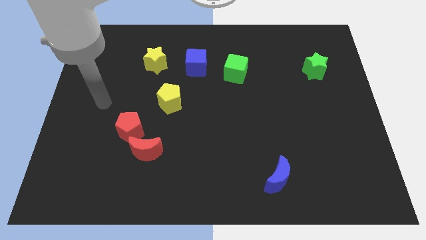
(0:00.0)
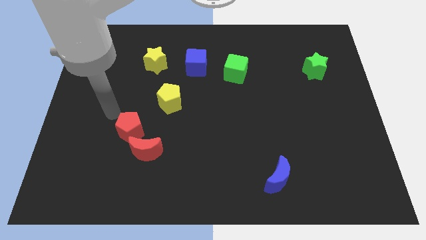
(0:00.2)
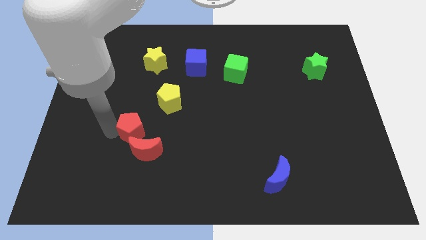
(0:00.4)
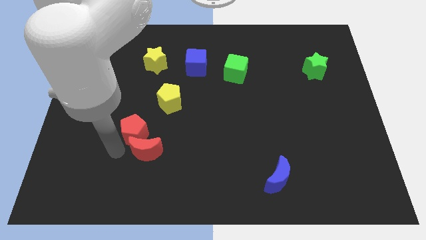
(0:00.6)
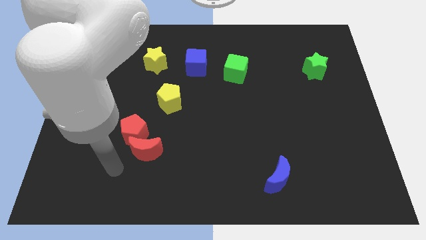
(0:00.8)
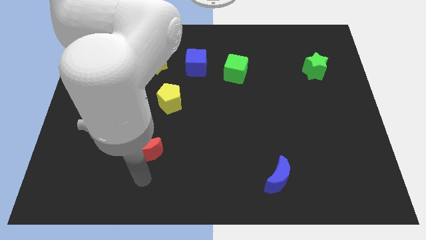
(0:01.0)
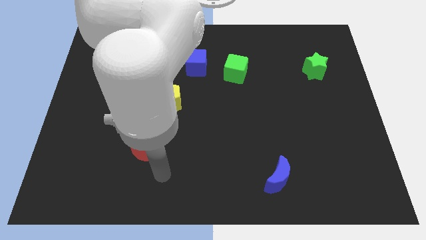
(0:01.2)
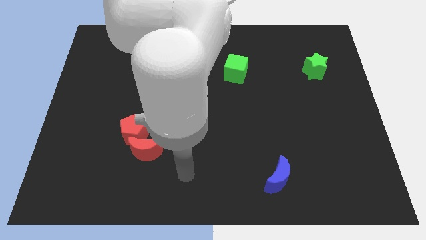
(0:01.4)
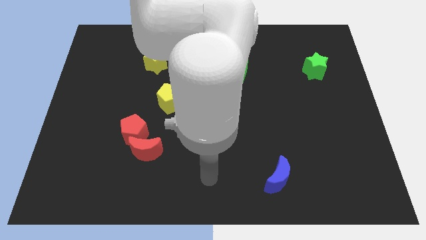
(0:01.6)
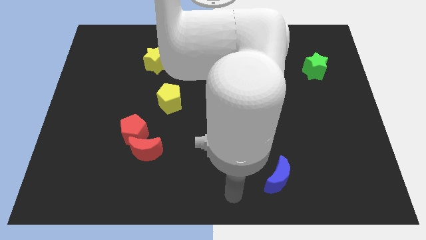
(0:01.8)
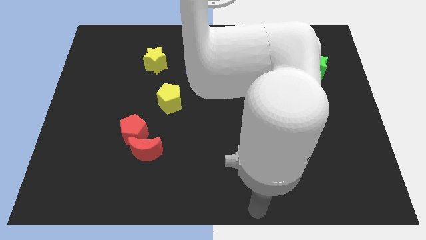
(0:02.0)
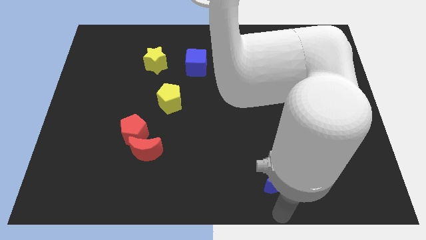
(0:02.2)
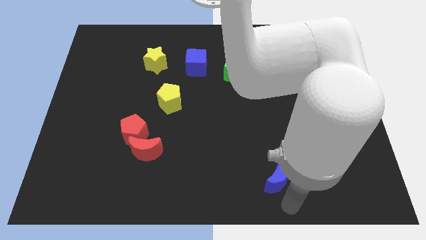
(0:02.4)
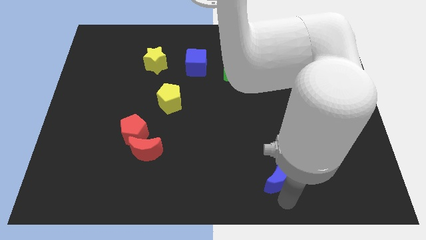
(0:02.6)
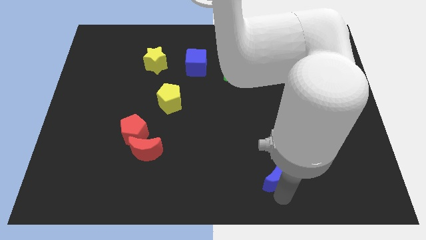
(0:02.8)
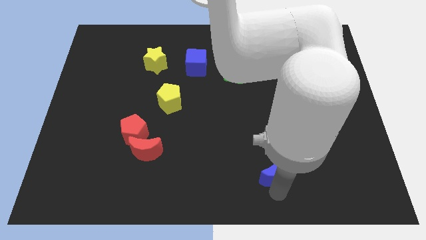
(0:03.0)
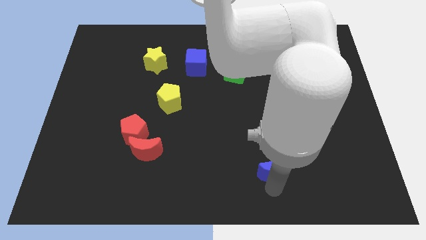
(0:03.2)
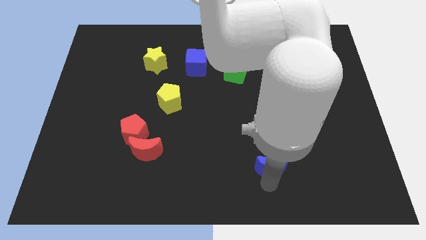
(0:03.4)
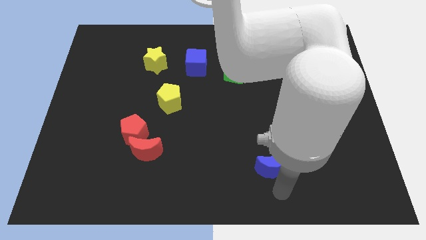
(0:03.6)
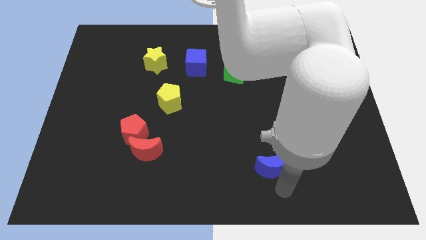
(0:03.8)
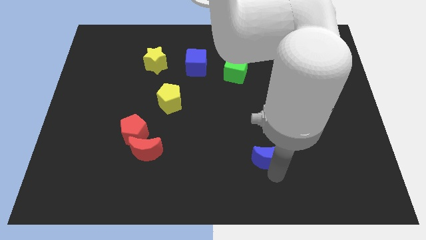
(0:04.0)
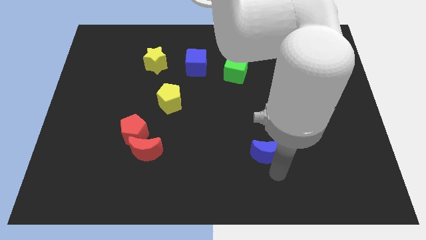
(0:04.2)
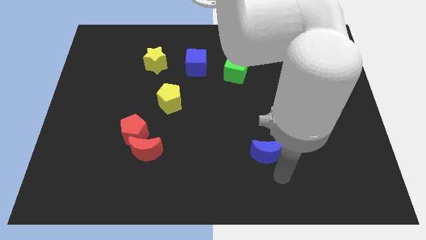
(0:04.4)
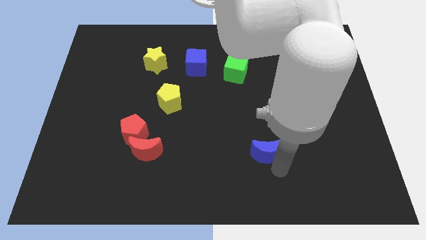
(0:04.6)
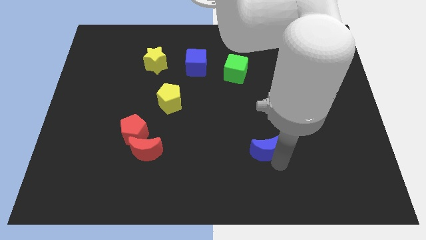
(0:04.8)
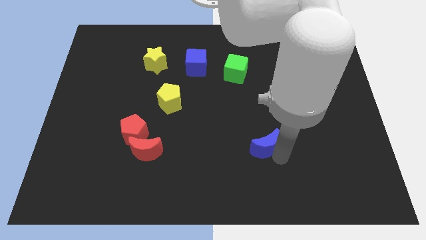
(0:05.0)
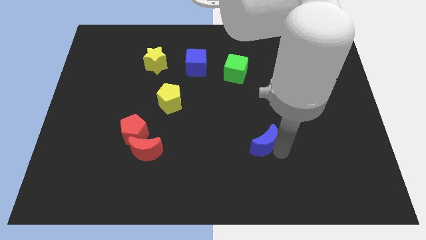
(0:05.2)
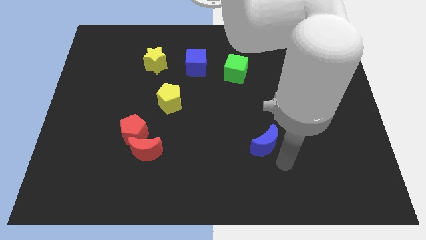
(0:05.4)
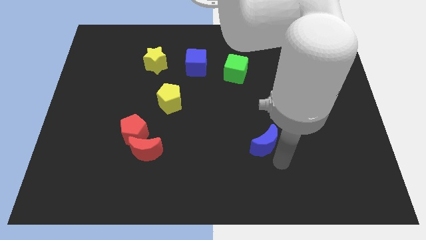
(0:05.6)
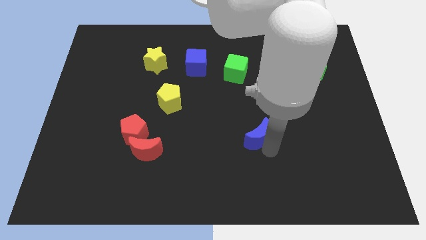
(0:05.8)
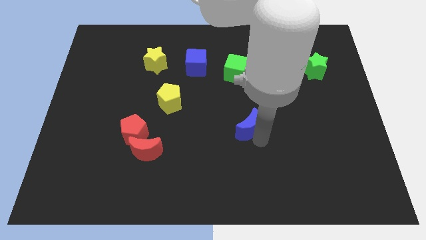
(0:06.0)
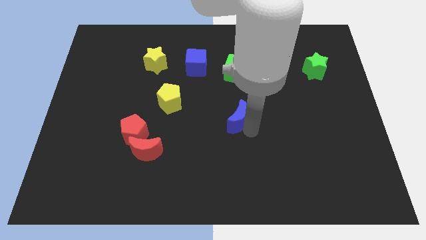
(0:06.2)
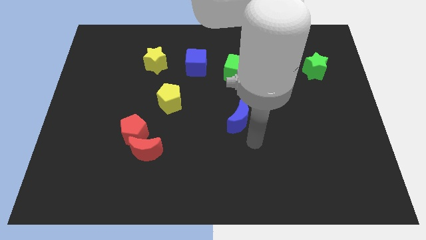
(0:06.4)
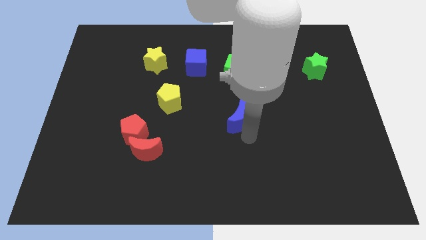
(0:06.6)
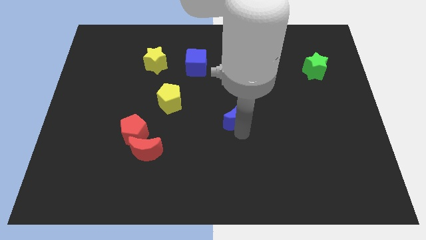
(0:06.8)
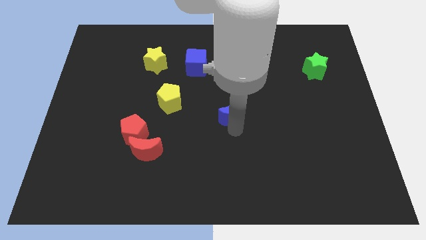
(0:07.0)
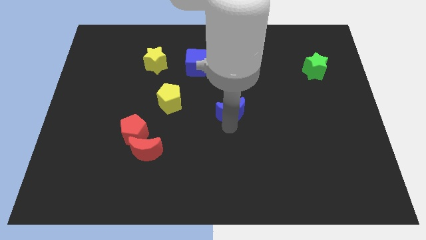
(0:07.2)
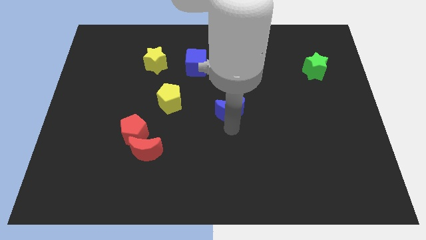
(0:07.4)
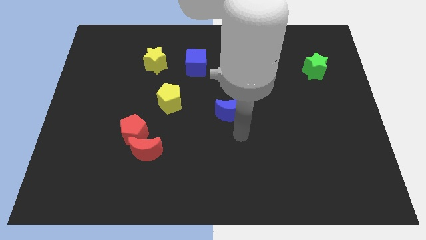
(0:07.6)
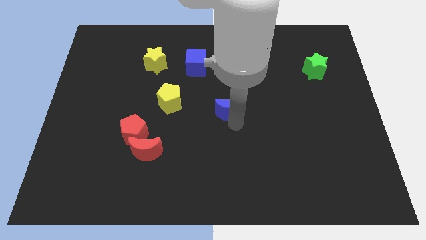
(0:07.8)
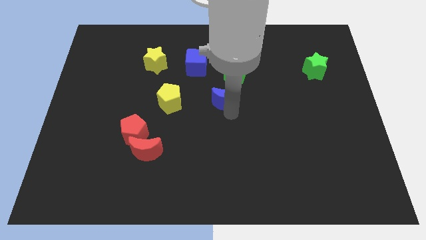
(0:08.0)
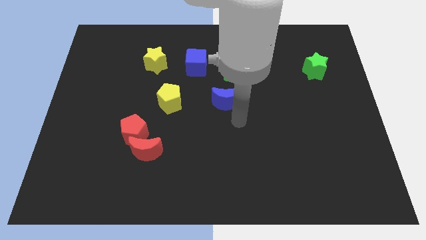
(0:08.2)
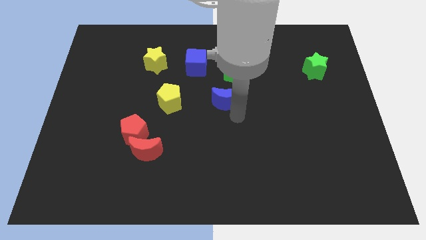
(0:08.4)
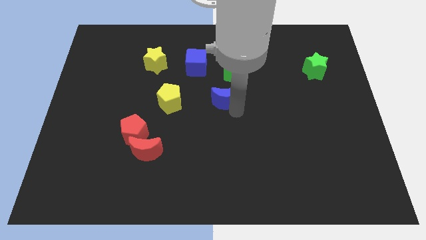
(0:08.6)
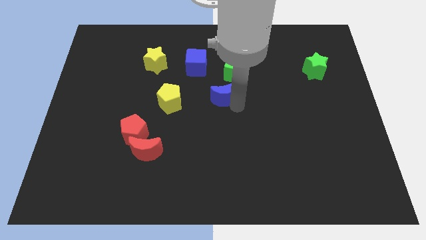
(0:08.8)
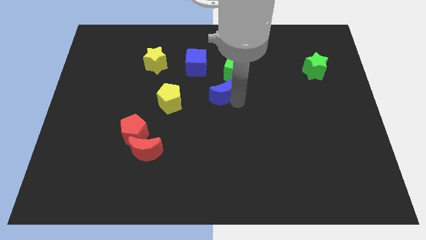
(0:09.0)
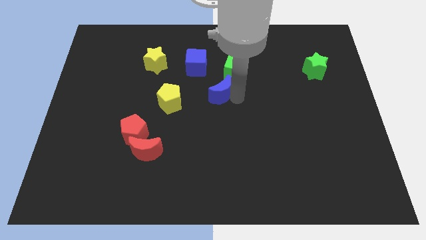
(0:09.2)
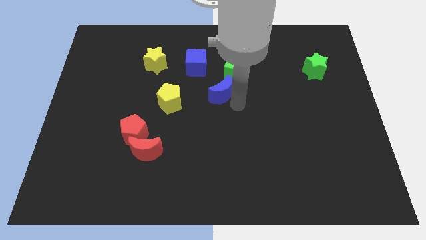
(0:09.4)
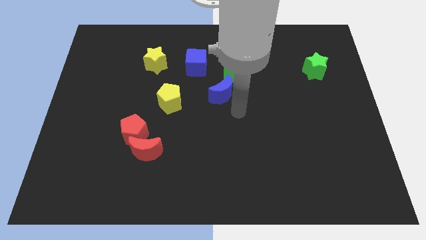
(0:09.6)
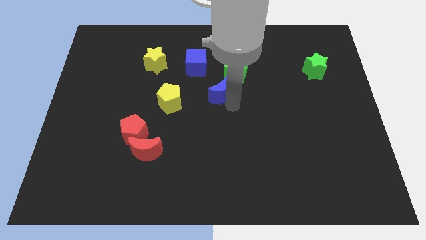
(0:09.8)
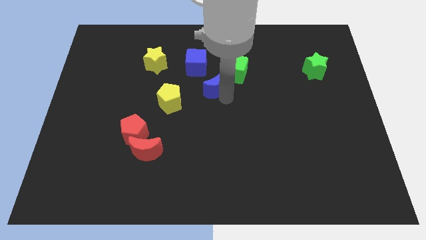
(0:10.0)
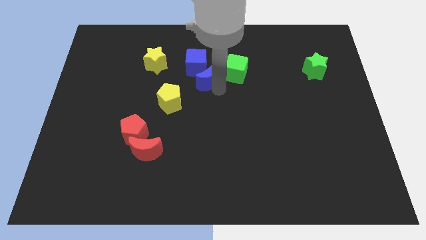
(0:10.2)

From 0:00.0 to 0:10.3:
slide the blue moon next to the blue cube

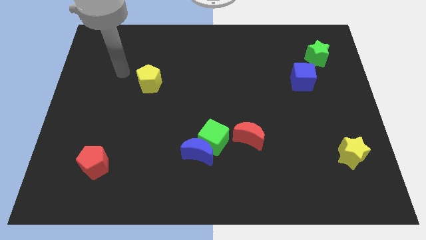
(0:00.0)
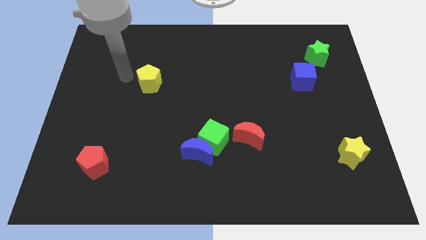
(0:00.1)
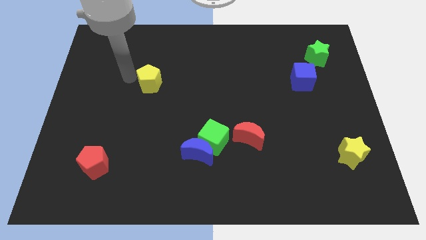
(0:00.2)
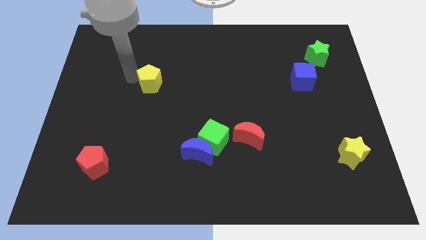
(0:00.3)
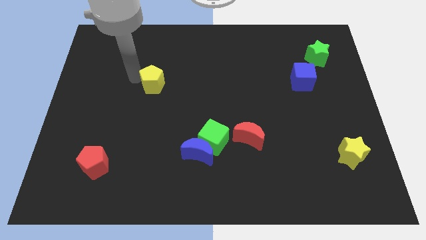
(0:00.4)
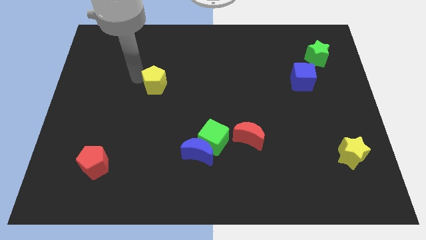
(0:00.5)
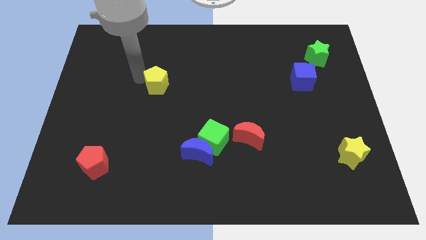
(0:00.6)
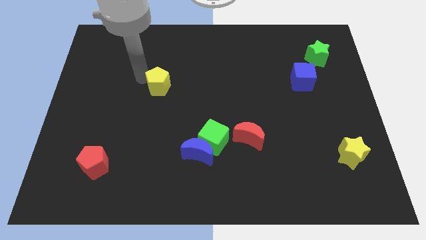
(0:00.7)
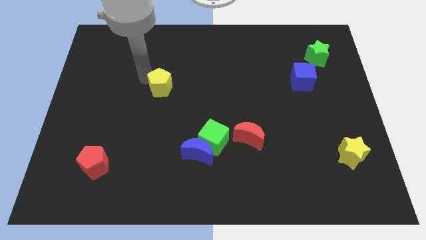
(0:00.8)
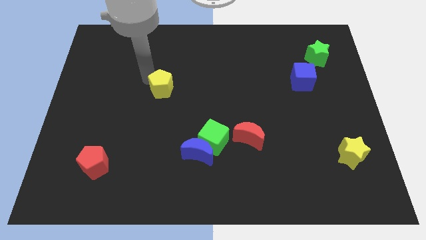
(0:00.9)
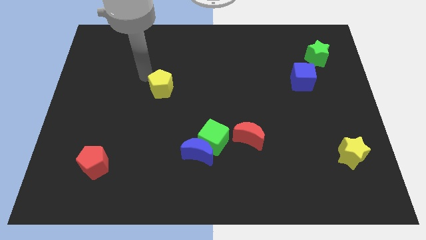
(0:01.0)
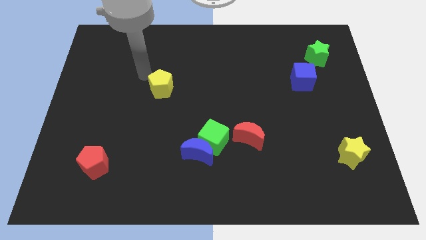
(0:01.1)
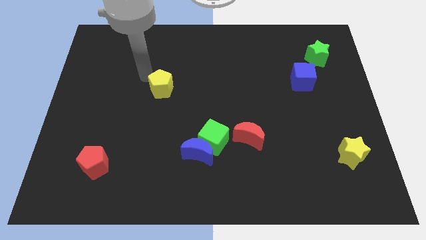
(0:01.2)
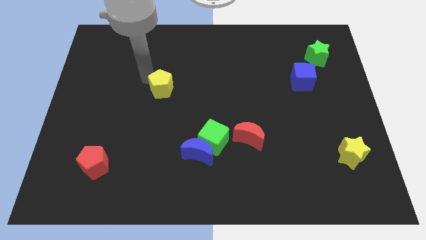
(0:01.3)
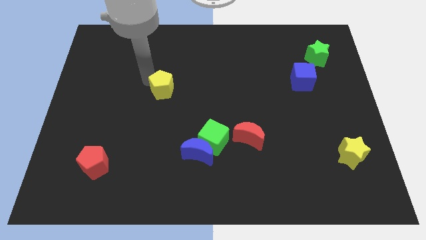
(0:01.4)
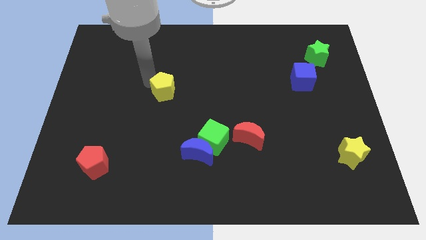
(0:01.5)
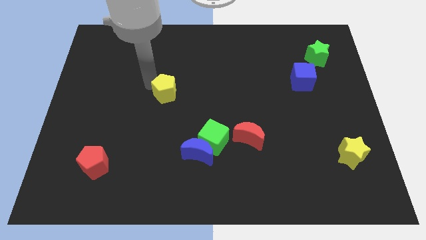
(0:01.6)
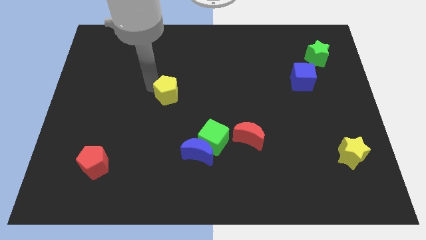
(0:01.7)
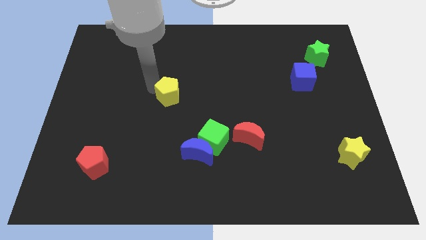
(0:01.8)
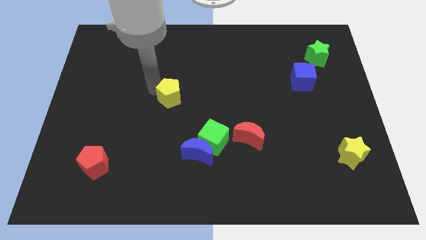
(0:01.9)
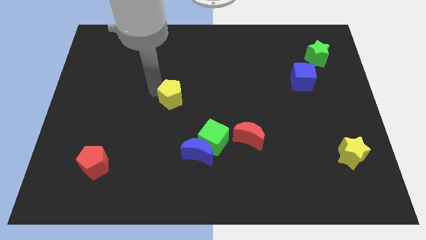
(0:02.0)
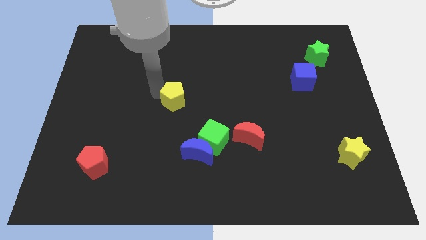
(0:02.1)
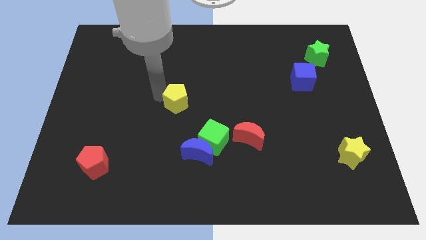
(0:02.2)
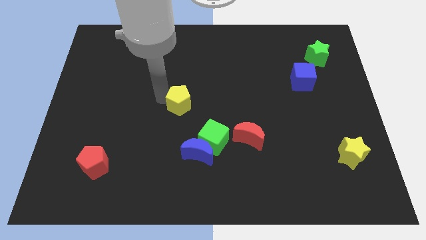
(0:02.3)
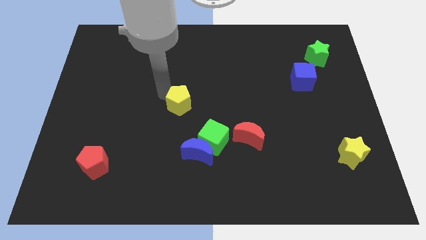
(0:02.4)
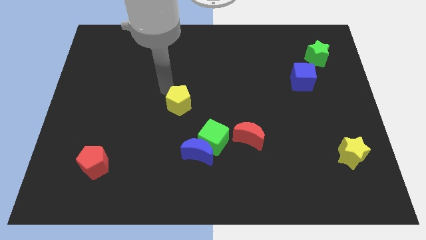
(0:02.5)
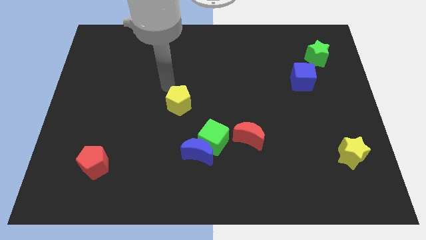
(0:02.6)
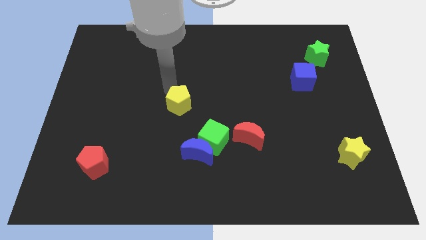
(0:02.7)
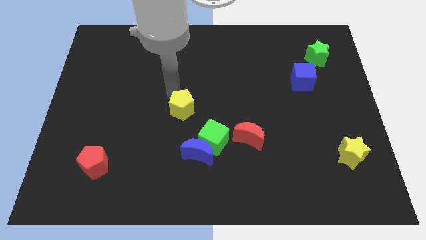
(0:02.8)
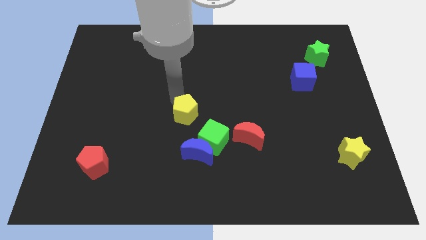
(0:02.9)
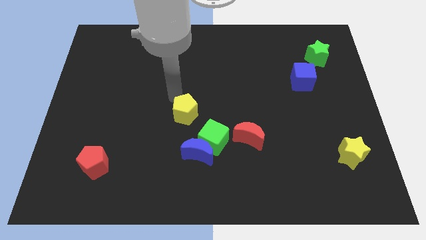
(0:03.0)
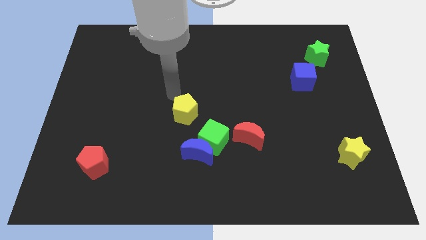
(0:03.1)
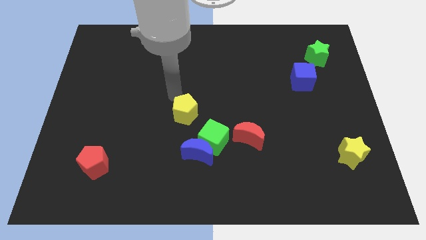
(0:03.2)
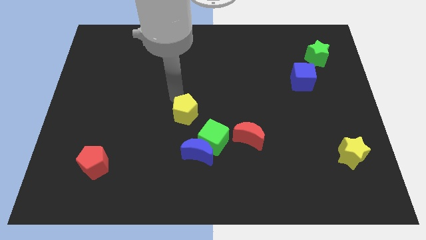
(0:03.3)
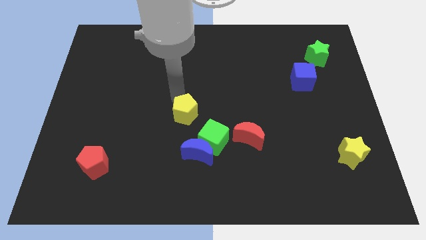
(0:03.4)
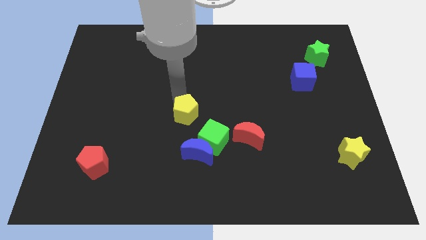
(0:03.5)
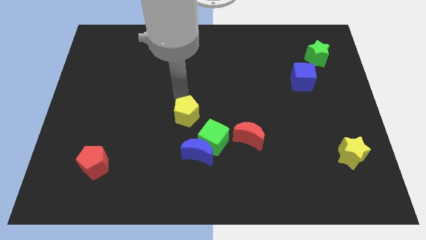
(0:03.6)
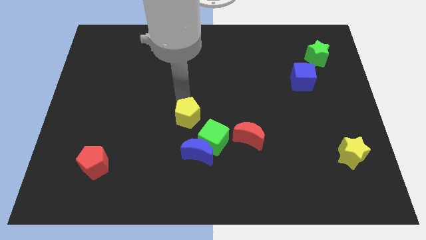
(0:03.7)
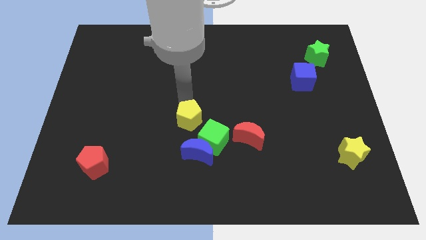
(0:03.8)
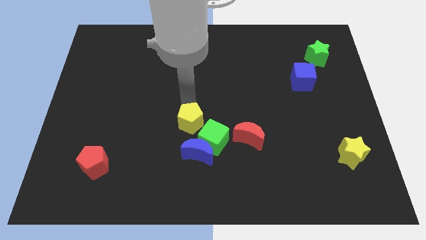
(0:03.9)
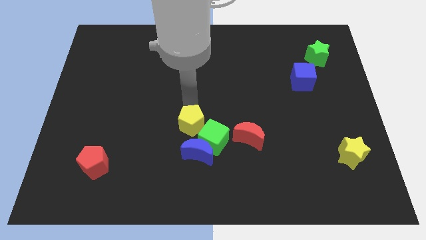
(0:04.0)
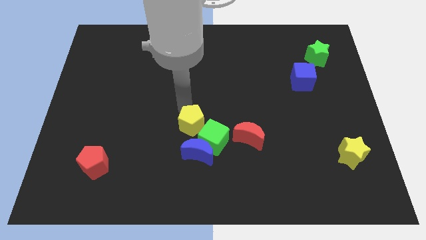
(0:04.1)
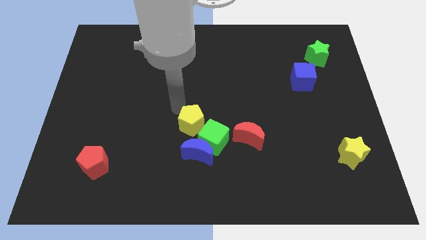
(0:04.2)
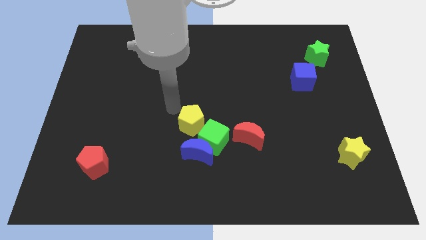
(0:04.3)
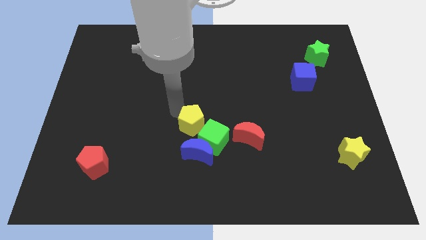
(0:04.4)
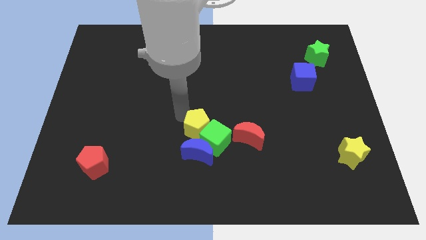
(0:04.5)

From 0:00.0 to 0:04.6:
put the yellow pentagon towards the green cube
